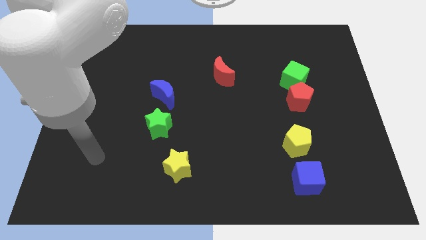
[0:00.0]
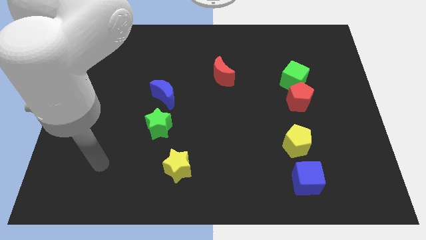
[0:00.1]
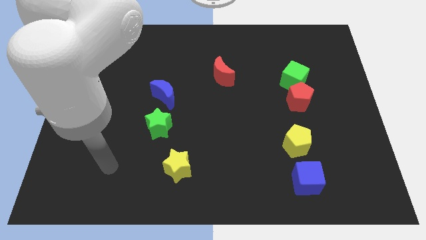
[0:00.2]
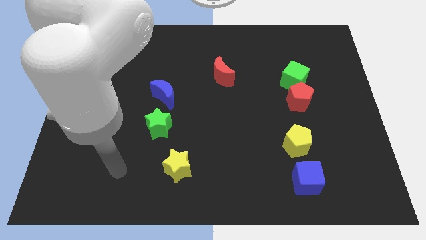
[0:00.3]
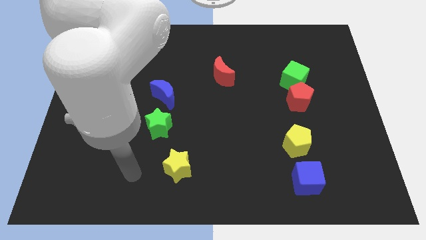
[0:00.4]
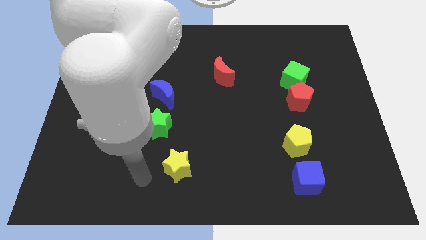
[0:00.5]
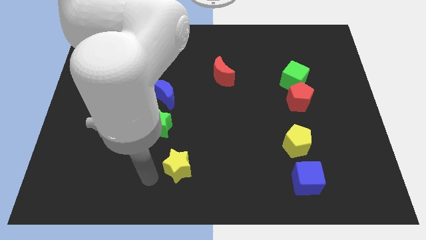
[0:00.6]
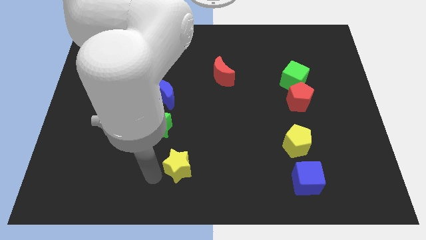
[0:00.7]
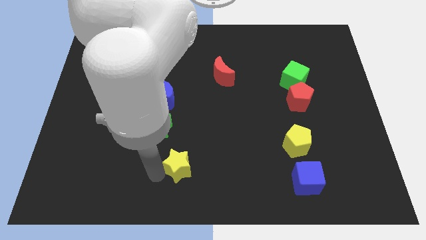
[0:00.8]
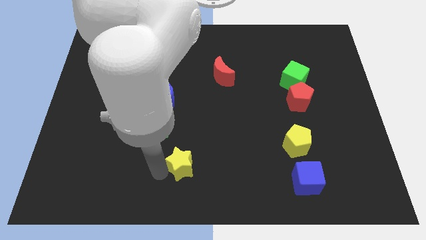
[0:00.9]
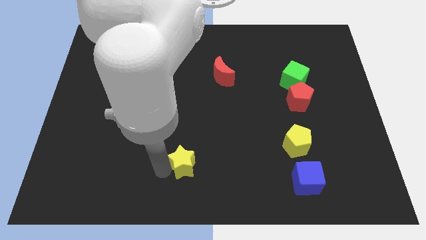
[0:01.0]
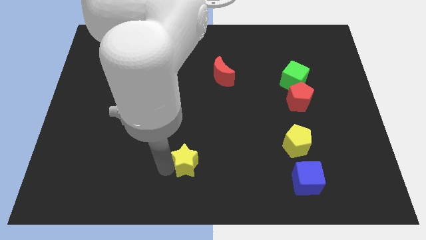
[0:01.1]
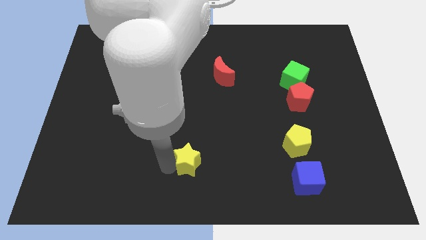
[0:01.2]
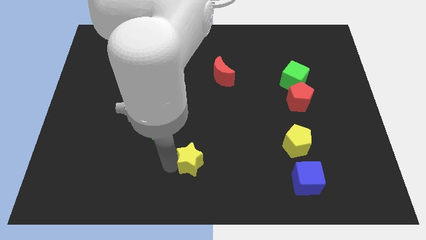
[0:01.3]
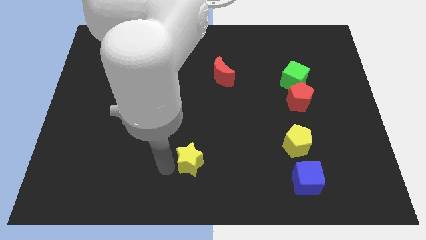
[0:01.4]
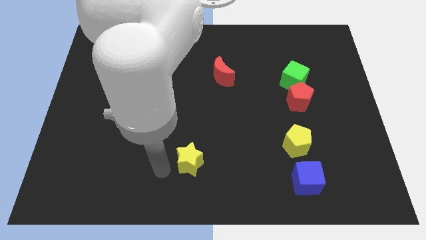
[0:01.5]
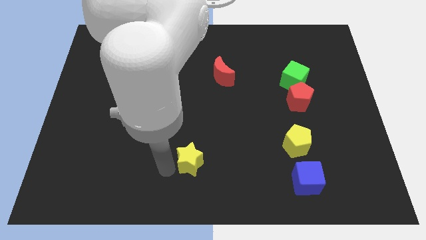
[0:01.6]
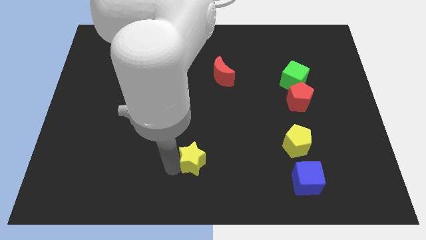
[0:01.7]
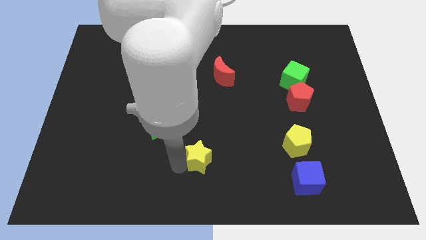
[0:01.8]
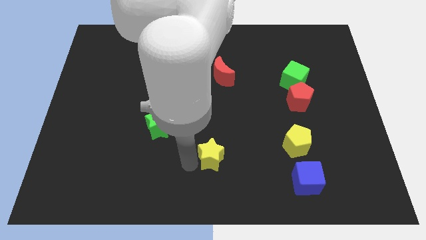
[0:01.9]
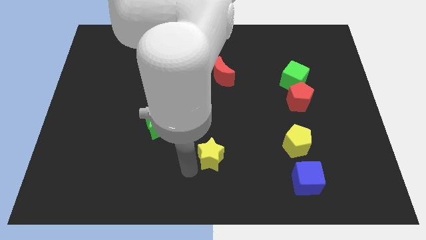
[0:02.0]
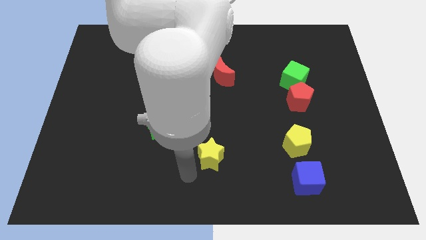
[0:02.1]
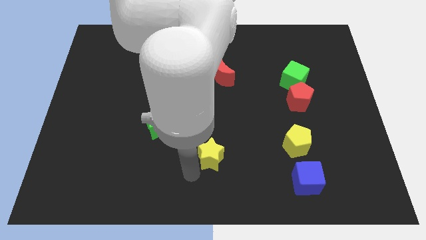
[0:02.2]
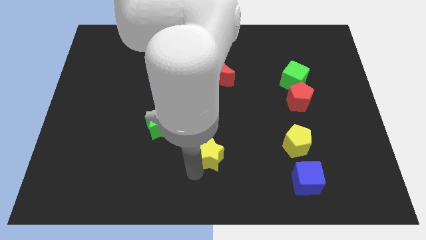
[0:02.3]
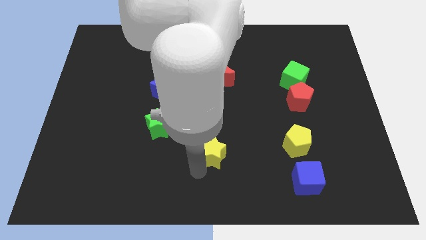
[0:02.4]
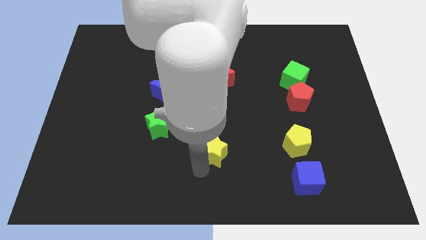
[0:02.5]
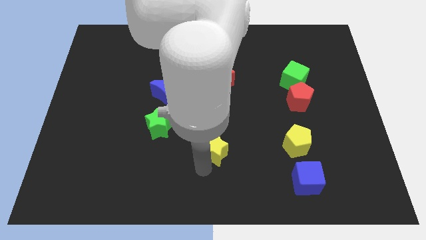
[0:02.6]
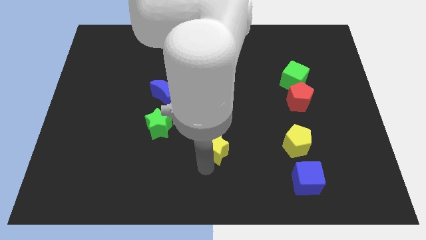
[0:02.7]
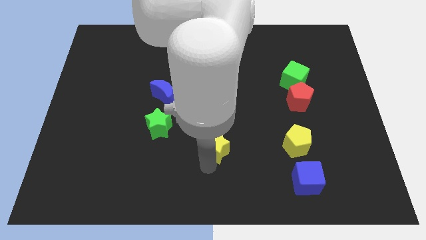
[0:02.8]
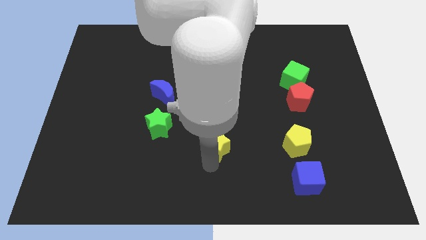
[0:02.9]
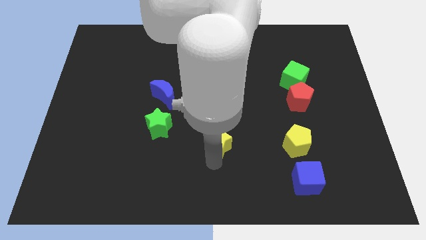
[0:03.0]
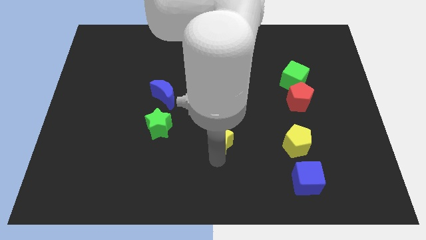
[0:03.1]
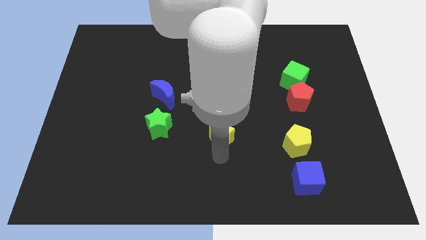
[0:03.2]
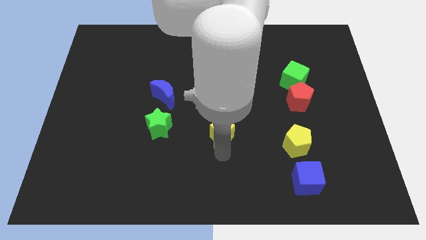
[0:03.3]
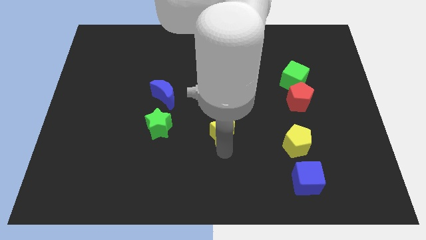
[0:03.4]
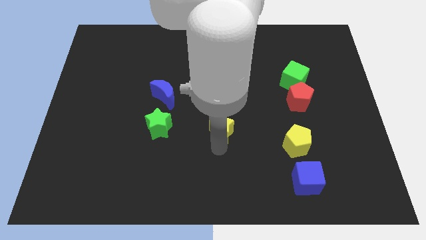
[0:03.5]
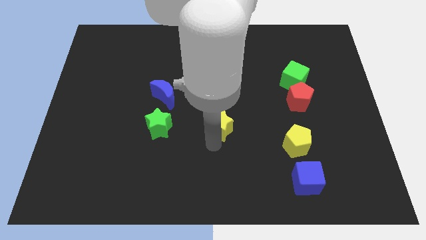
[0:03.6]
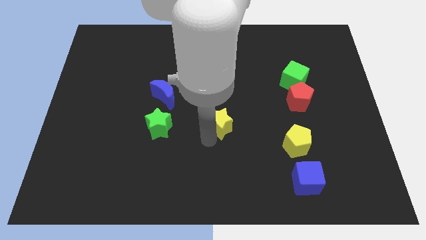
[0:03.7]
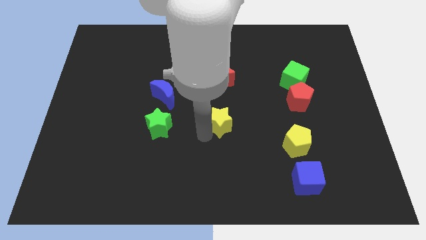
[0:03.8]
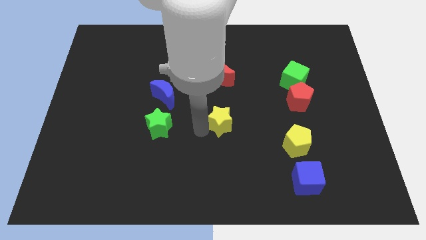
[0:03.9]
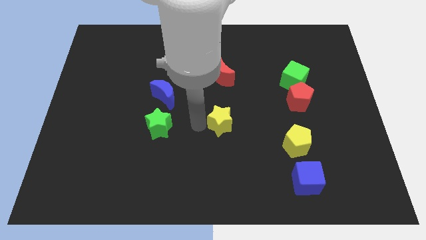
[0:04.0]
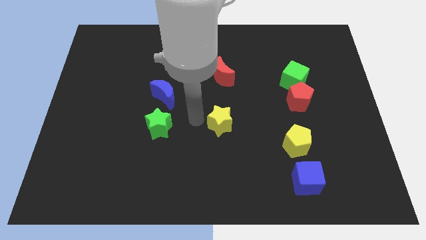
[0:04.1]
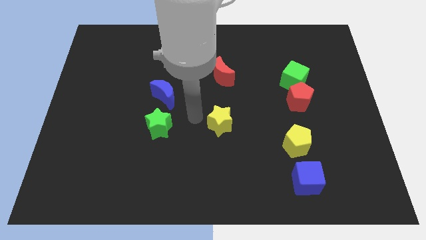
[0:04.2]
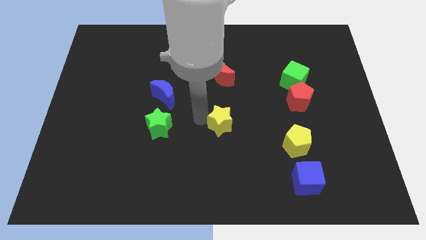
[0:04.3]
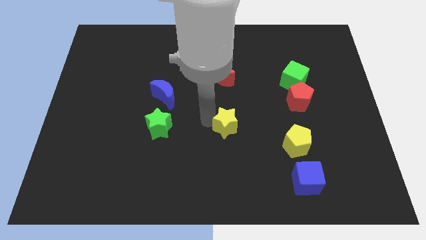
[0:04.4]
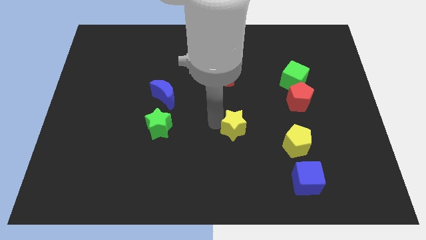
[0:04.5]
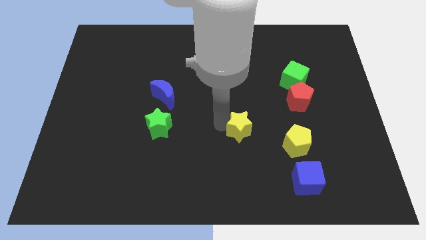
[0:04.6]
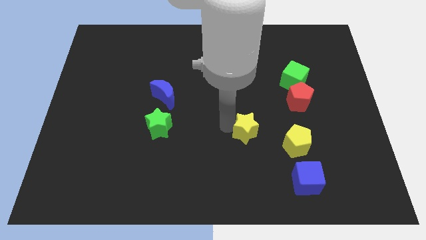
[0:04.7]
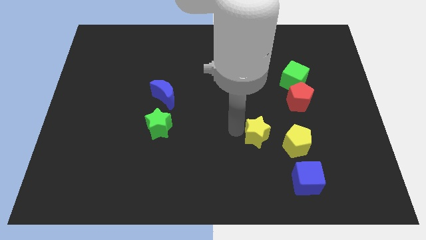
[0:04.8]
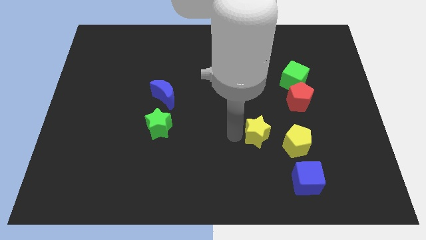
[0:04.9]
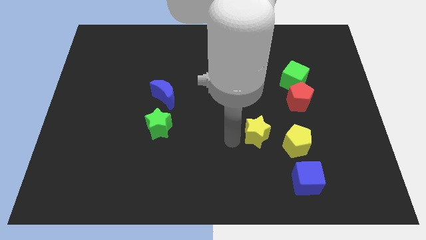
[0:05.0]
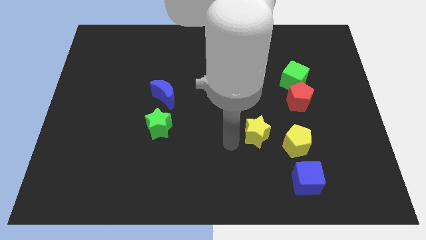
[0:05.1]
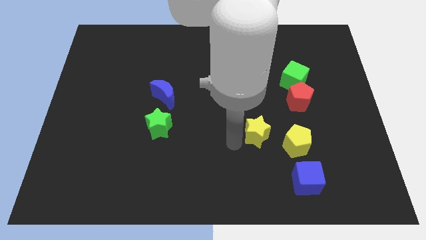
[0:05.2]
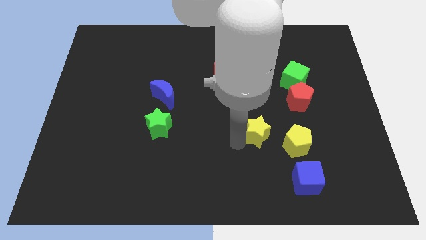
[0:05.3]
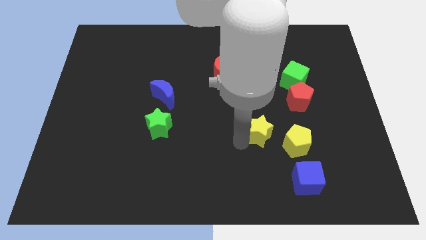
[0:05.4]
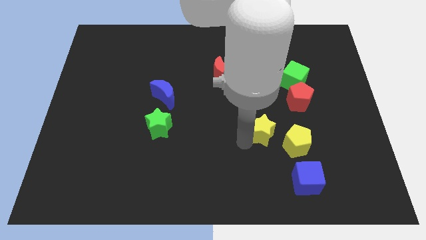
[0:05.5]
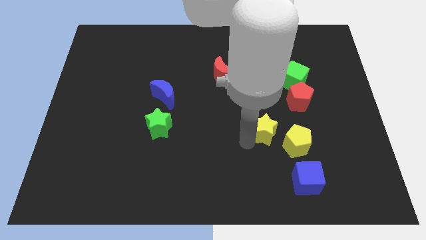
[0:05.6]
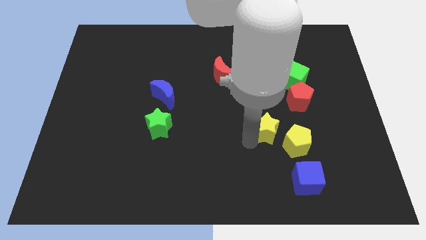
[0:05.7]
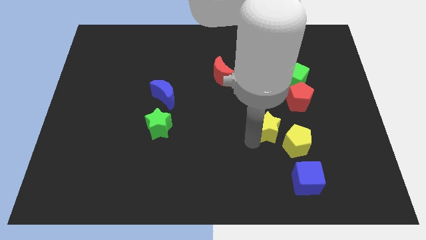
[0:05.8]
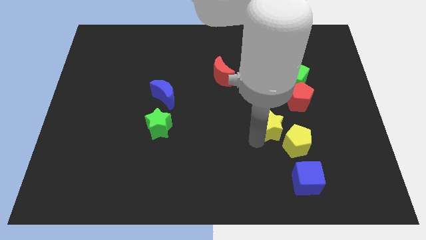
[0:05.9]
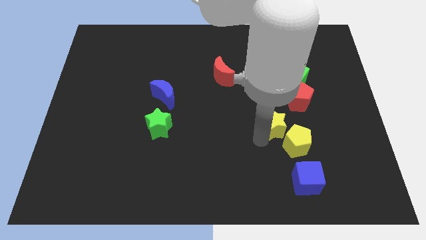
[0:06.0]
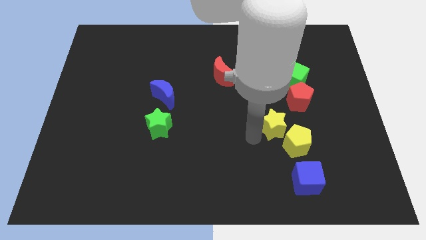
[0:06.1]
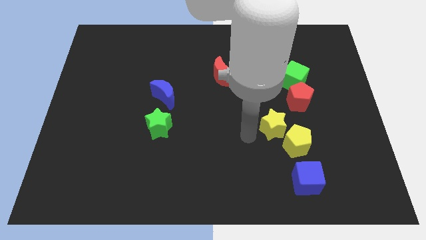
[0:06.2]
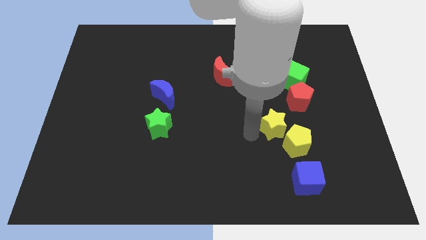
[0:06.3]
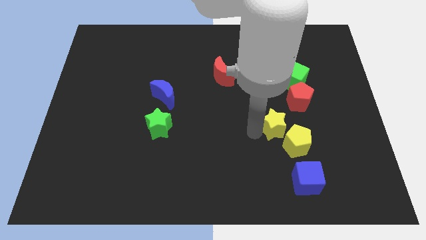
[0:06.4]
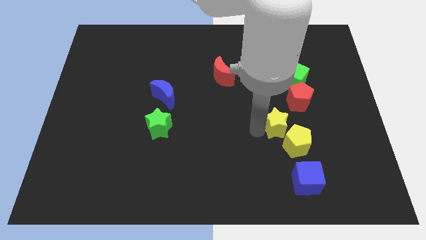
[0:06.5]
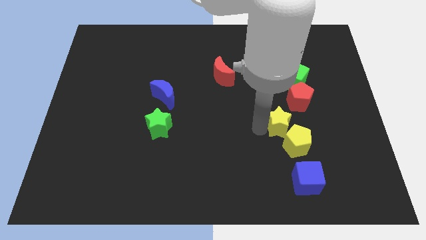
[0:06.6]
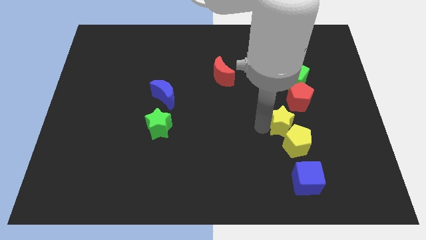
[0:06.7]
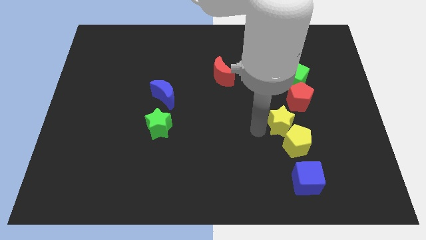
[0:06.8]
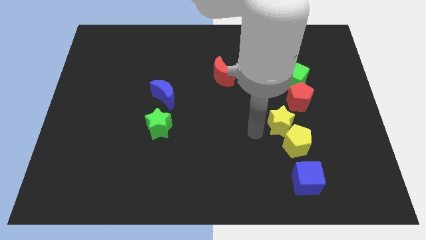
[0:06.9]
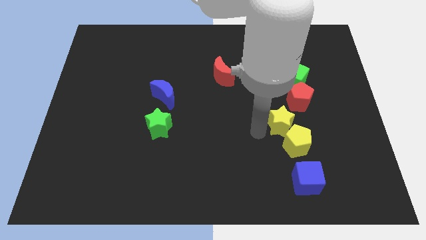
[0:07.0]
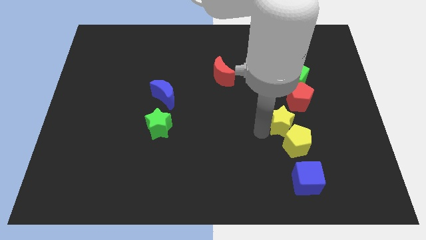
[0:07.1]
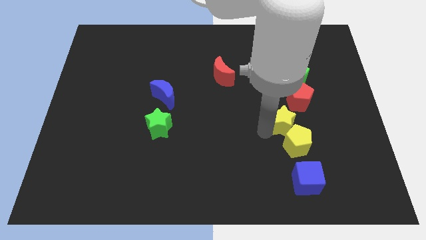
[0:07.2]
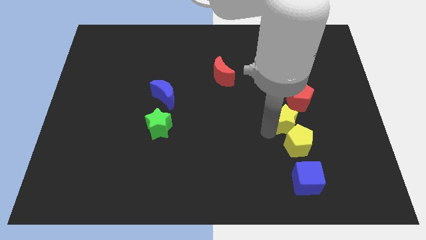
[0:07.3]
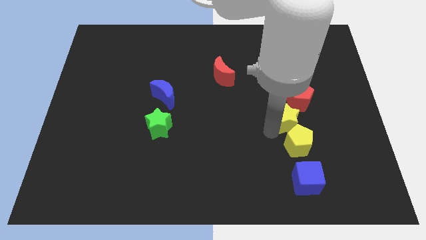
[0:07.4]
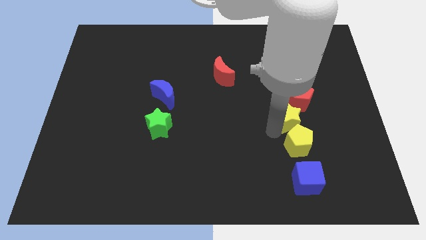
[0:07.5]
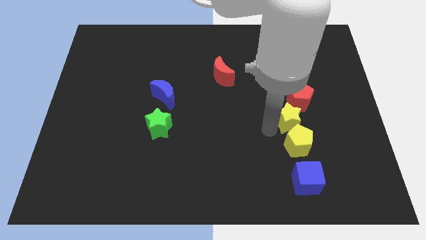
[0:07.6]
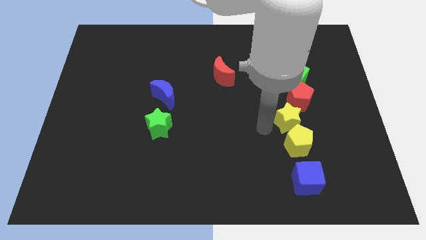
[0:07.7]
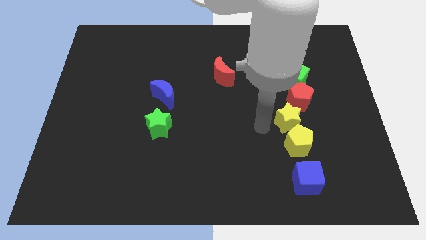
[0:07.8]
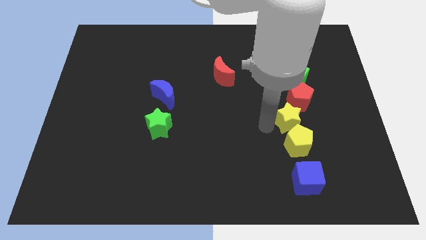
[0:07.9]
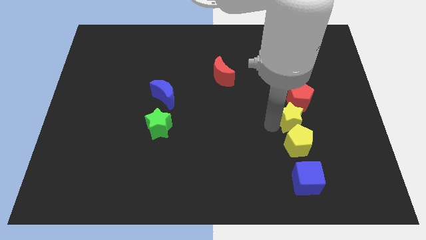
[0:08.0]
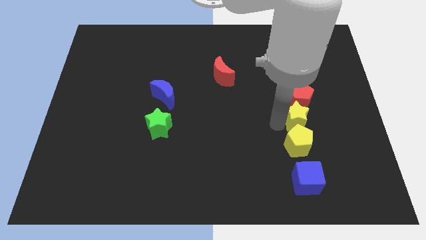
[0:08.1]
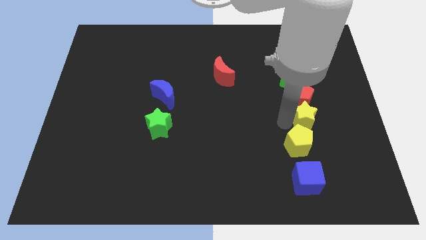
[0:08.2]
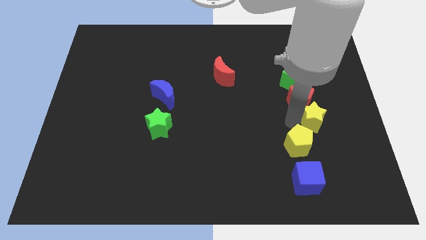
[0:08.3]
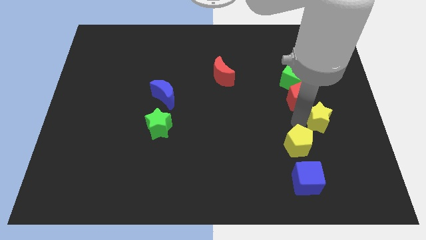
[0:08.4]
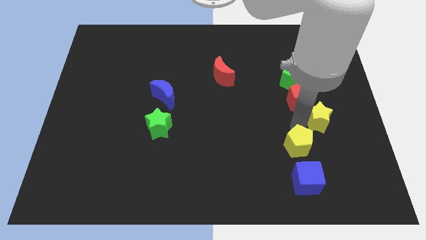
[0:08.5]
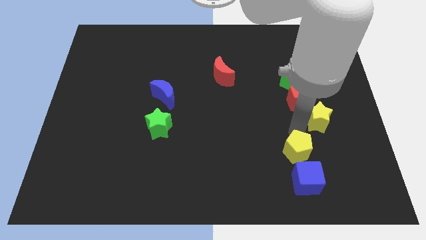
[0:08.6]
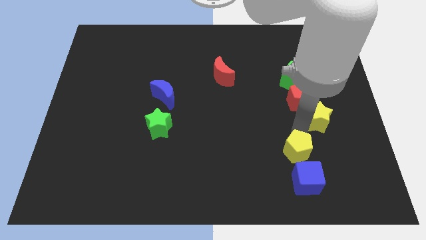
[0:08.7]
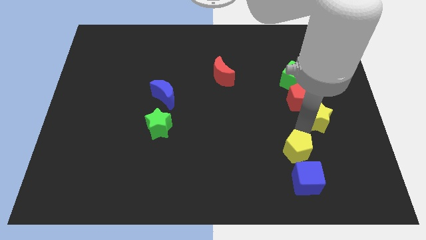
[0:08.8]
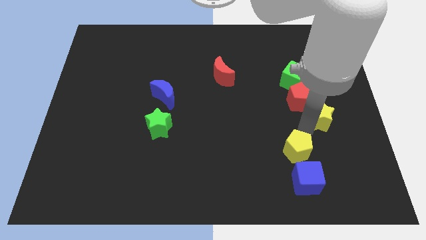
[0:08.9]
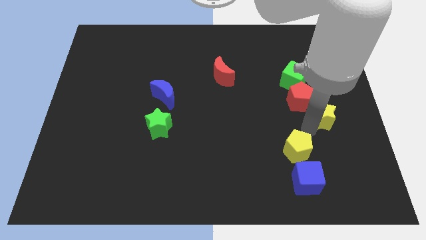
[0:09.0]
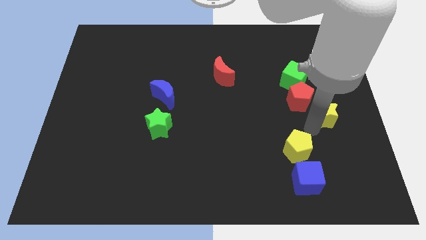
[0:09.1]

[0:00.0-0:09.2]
put the yellow star to the right side
